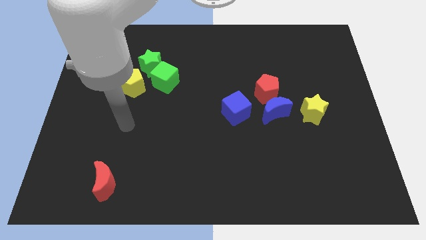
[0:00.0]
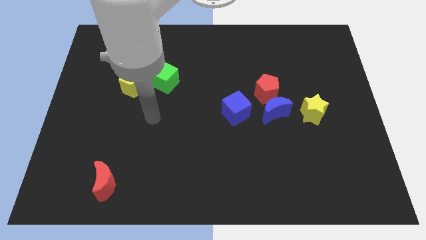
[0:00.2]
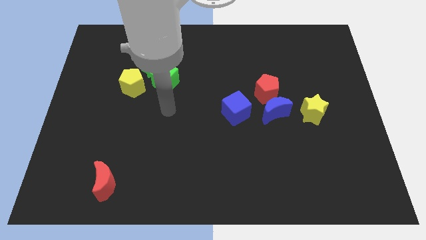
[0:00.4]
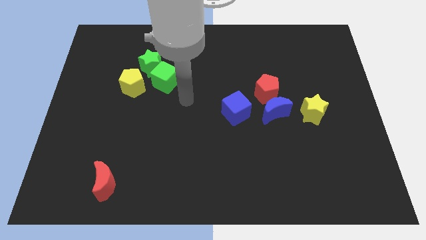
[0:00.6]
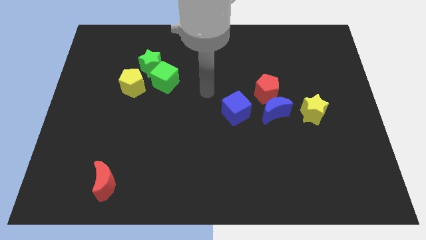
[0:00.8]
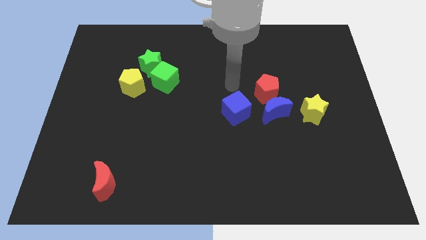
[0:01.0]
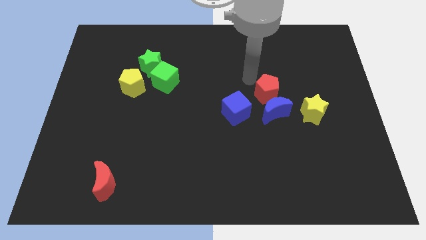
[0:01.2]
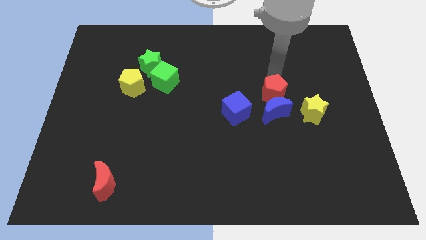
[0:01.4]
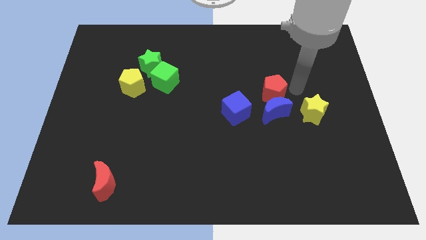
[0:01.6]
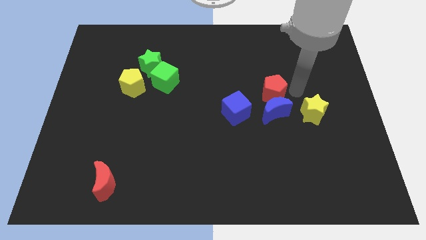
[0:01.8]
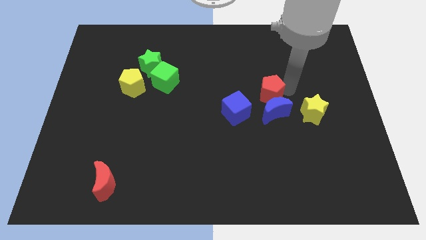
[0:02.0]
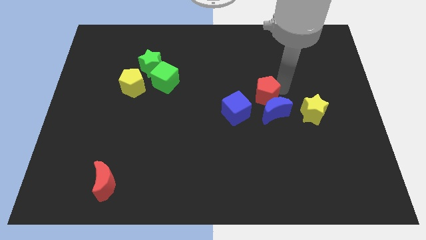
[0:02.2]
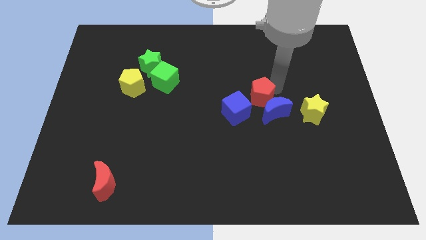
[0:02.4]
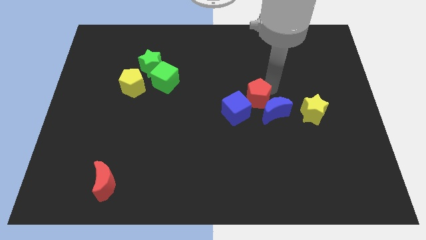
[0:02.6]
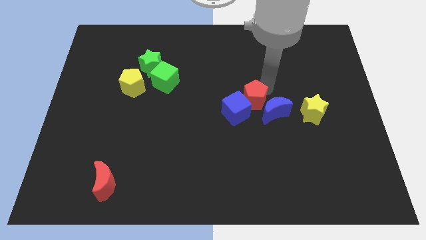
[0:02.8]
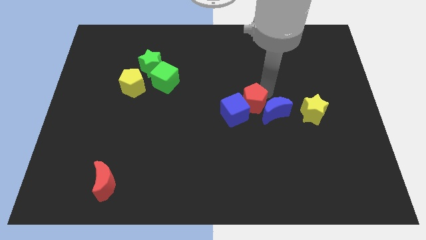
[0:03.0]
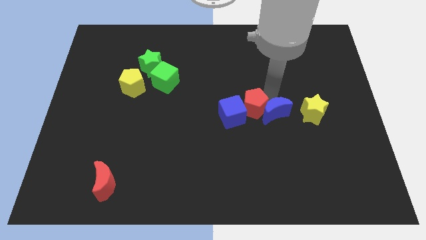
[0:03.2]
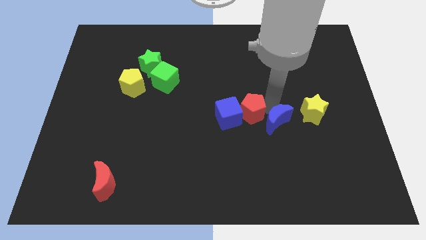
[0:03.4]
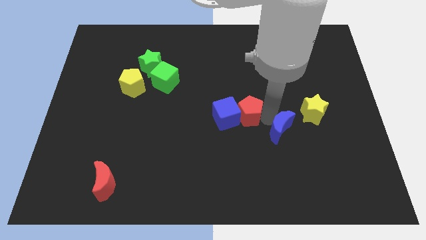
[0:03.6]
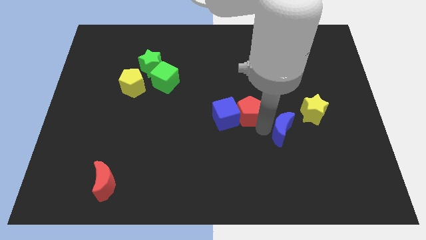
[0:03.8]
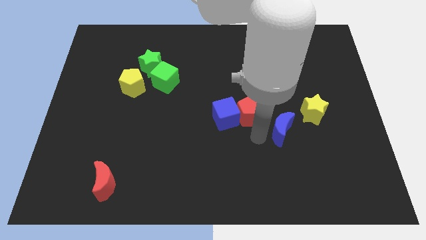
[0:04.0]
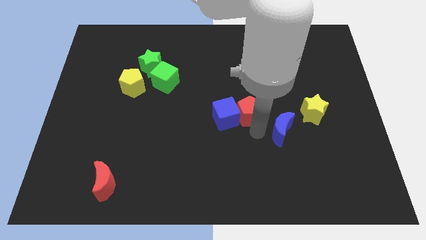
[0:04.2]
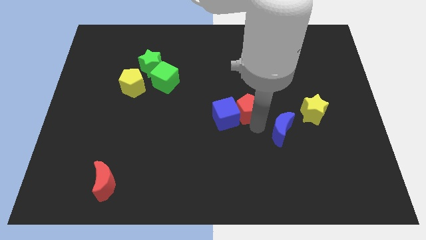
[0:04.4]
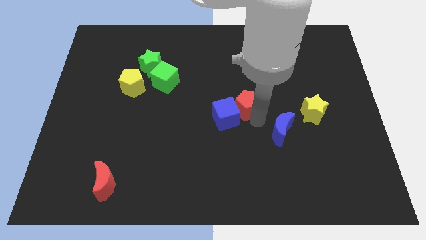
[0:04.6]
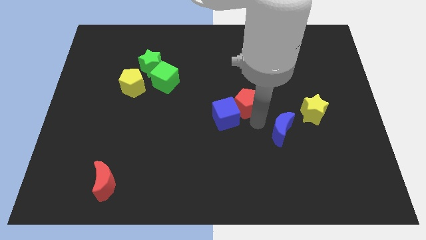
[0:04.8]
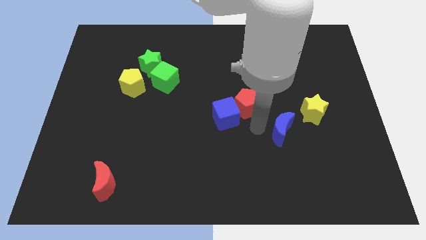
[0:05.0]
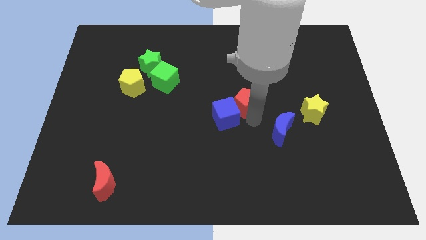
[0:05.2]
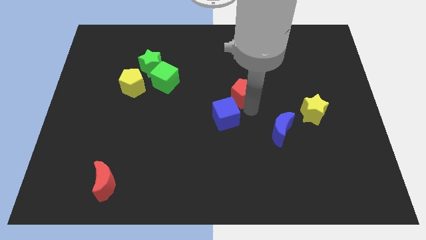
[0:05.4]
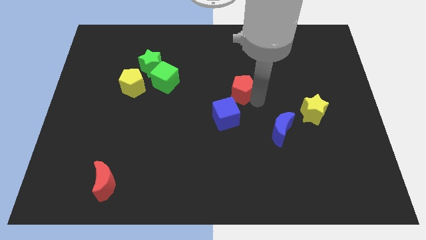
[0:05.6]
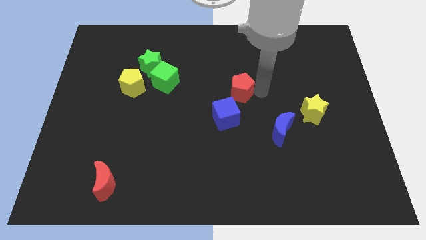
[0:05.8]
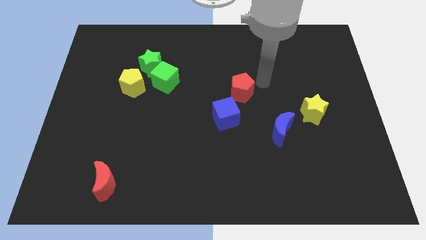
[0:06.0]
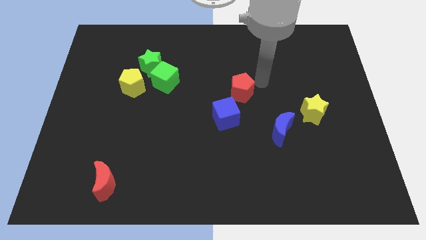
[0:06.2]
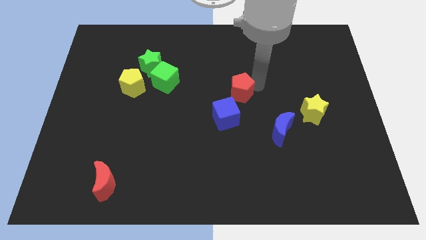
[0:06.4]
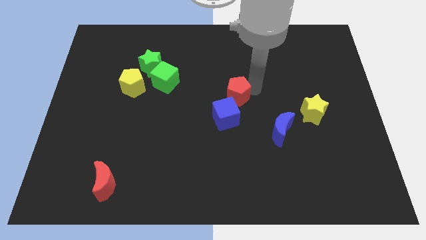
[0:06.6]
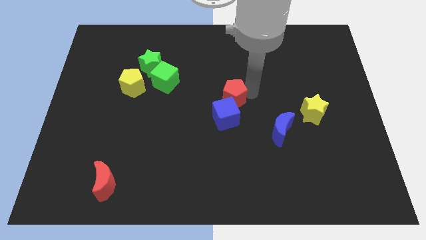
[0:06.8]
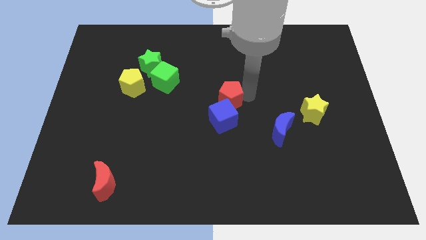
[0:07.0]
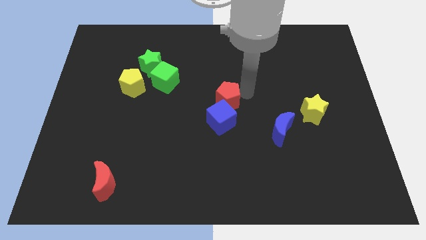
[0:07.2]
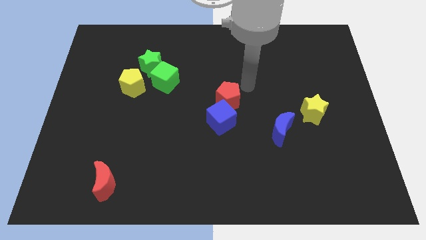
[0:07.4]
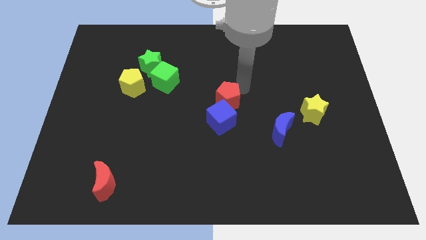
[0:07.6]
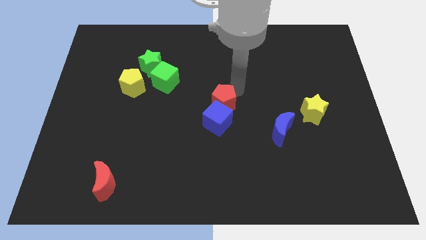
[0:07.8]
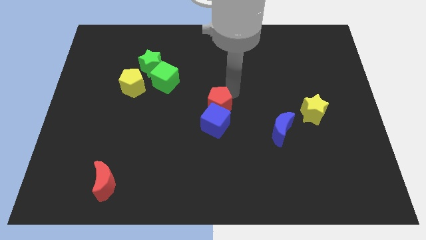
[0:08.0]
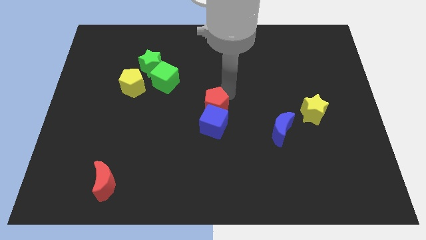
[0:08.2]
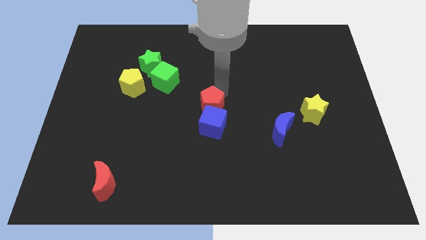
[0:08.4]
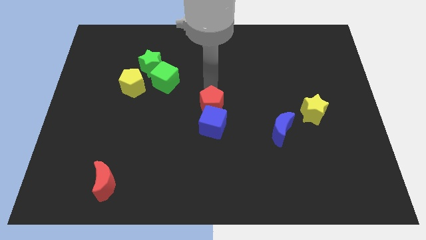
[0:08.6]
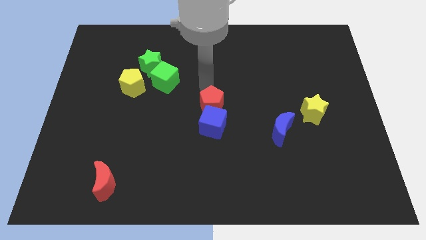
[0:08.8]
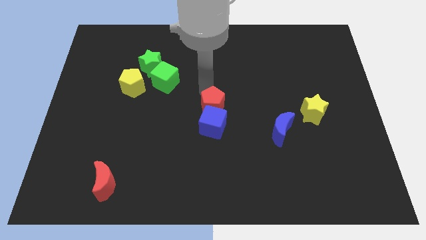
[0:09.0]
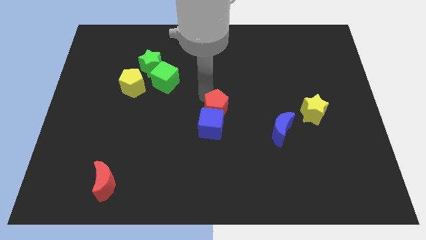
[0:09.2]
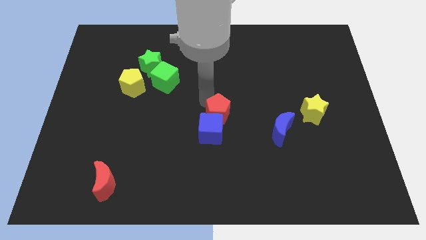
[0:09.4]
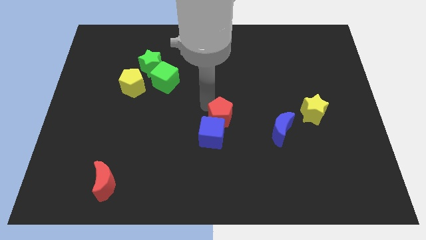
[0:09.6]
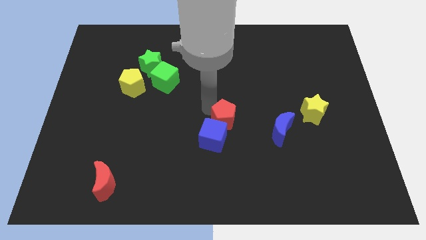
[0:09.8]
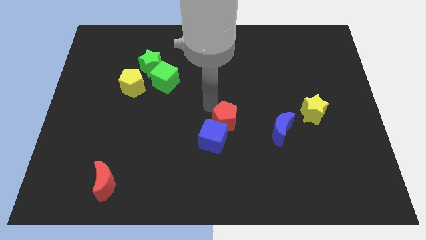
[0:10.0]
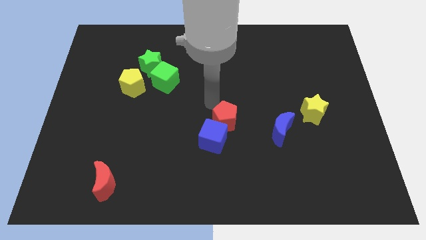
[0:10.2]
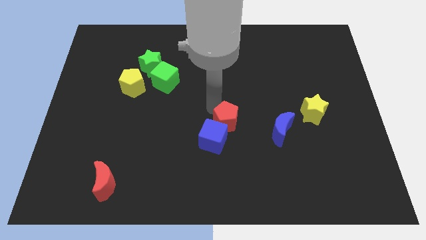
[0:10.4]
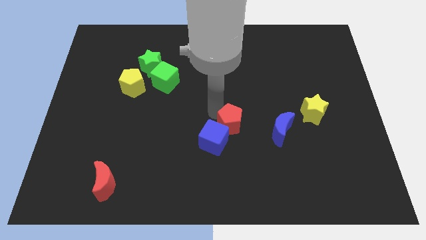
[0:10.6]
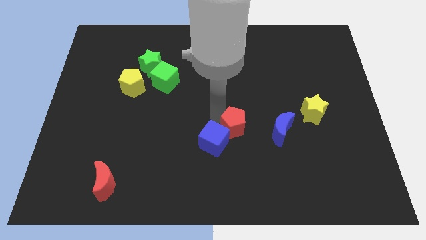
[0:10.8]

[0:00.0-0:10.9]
slide the red pentagon downwards slightly

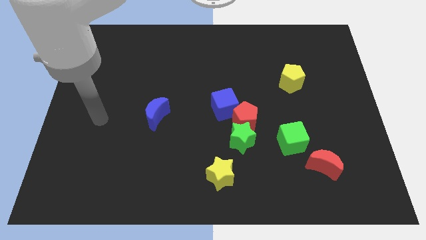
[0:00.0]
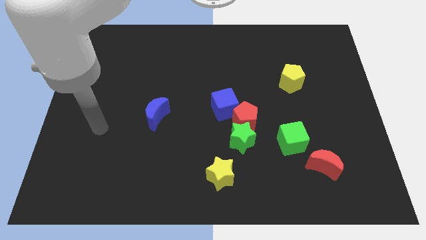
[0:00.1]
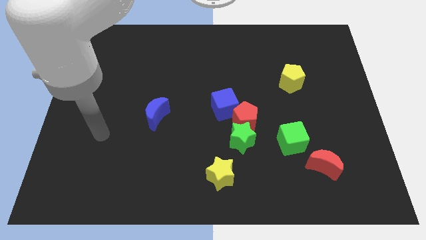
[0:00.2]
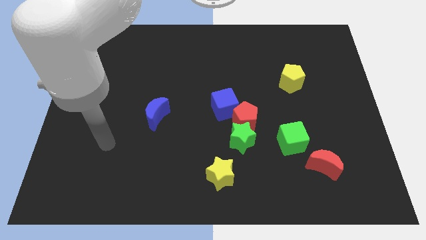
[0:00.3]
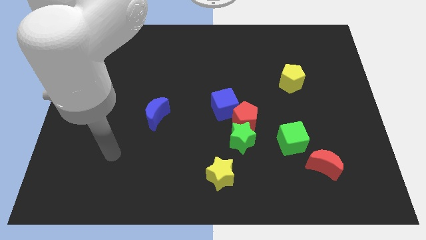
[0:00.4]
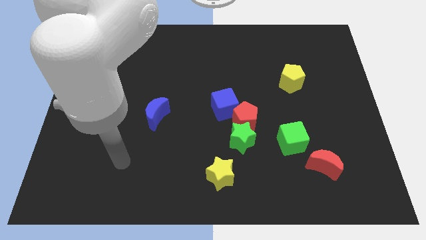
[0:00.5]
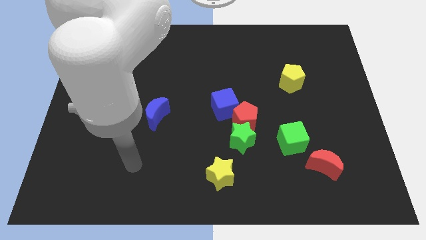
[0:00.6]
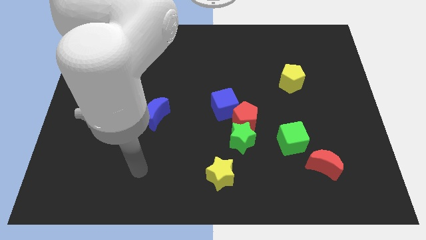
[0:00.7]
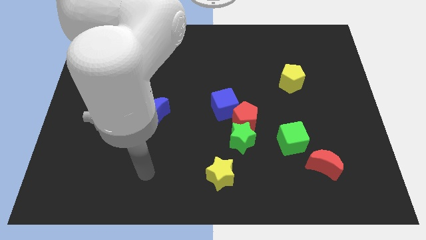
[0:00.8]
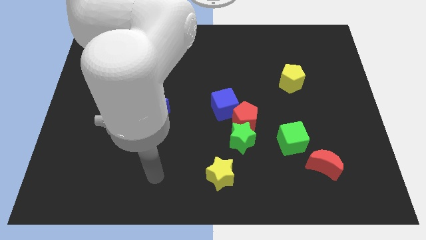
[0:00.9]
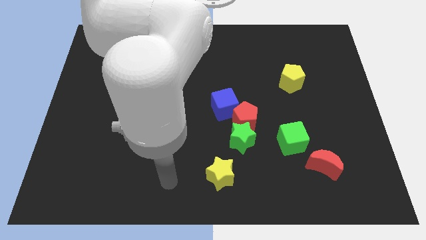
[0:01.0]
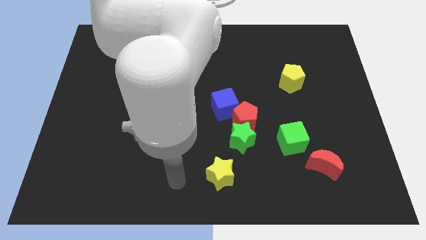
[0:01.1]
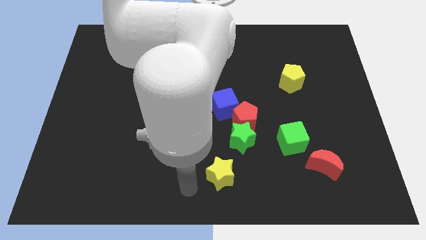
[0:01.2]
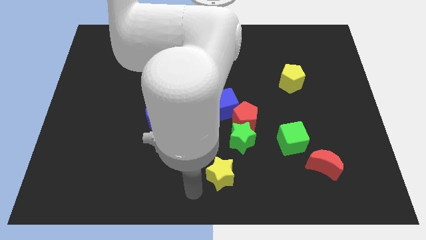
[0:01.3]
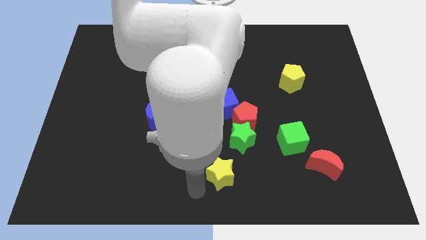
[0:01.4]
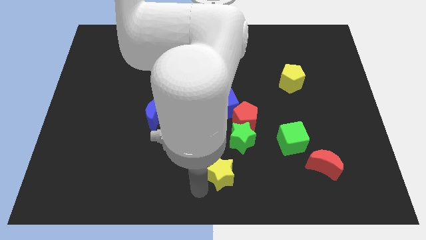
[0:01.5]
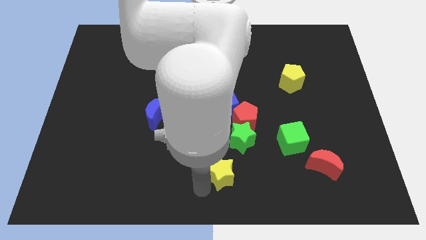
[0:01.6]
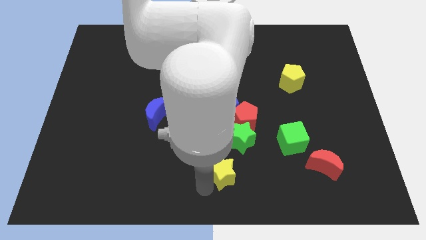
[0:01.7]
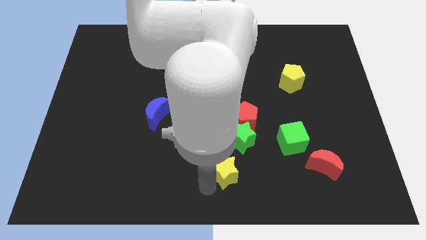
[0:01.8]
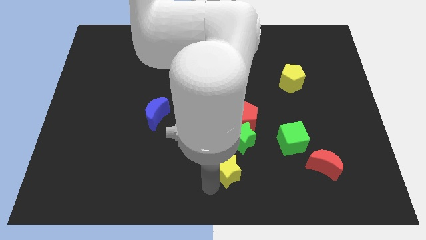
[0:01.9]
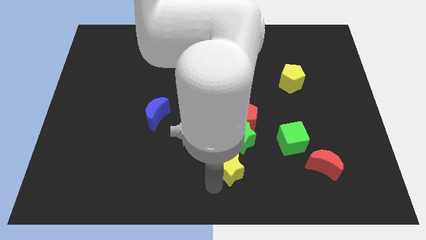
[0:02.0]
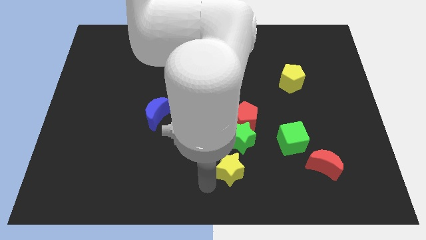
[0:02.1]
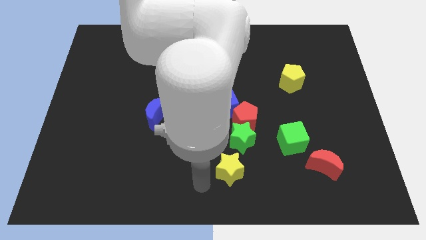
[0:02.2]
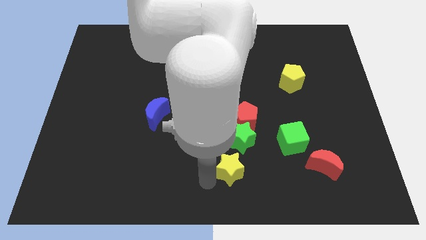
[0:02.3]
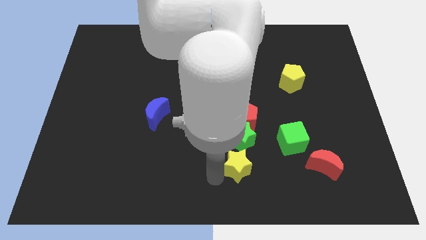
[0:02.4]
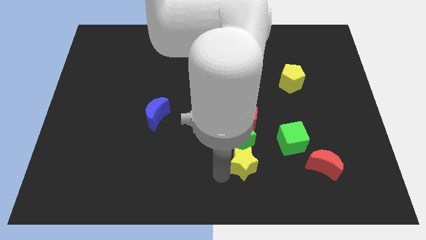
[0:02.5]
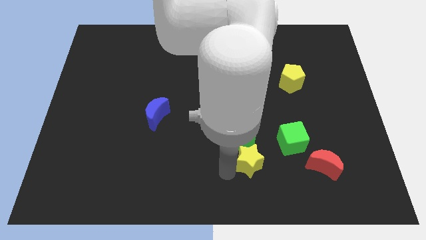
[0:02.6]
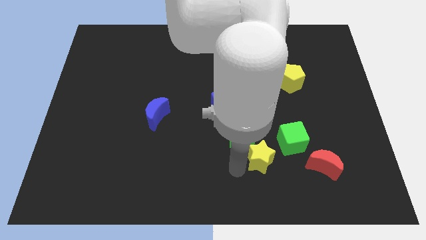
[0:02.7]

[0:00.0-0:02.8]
push the yellow star up and then to the right a little
